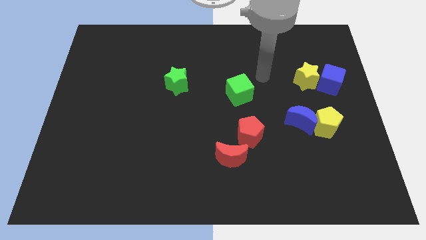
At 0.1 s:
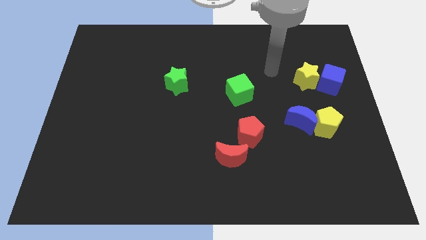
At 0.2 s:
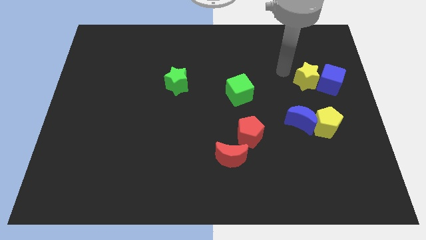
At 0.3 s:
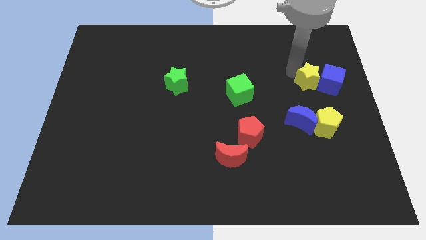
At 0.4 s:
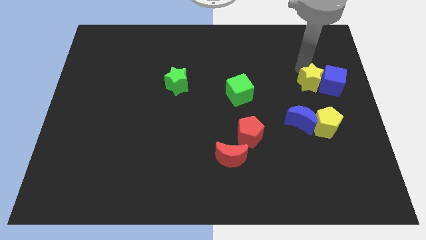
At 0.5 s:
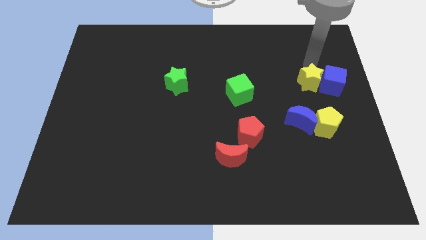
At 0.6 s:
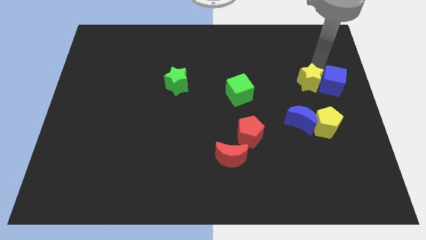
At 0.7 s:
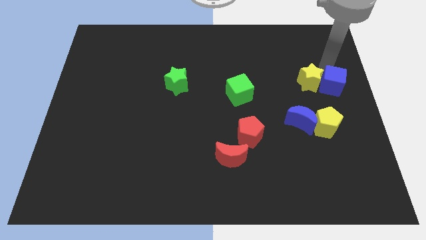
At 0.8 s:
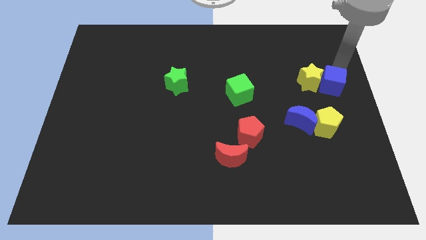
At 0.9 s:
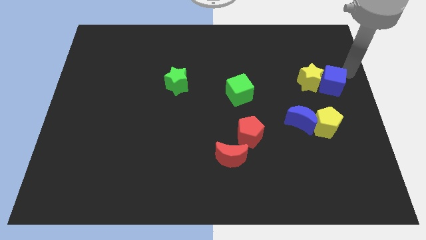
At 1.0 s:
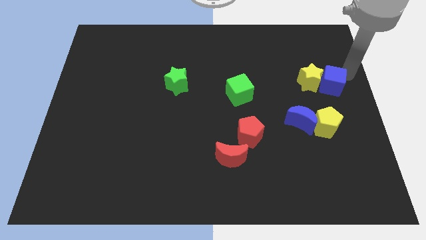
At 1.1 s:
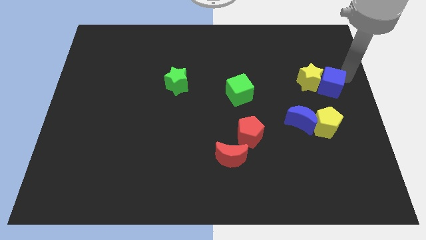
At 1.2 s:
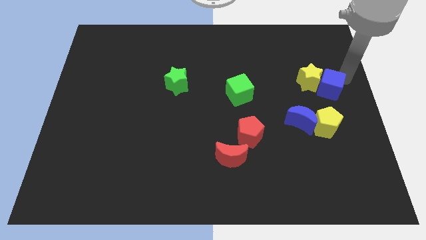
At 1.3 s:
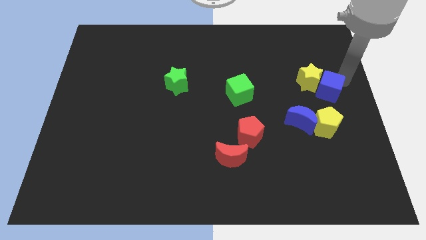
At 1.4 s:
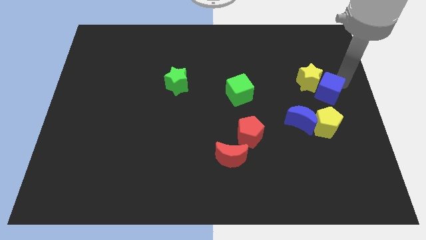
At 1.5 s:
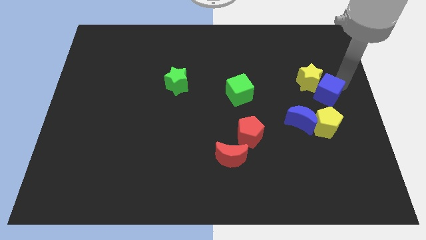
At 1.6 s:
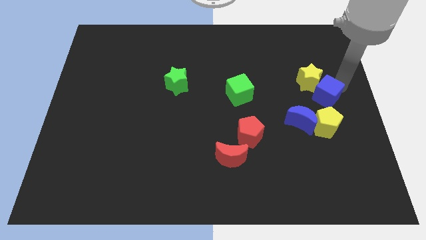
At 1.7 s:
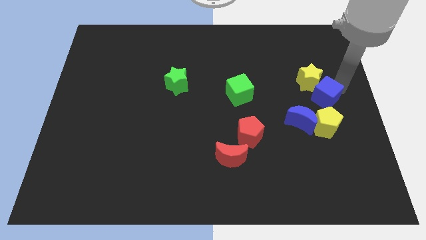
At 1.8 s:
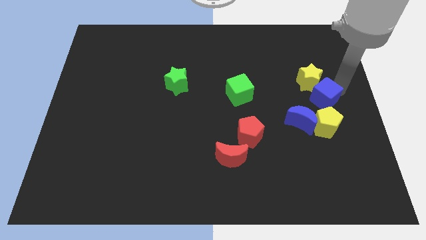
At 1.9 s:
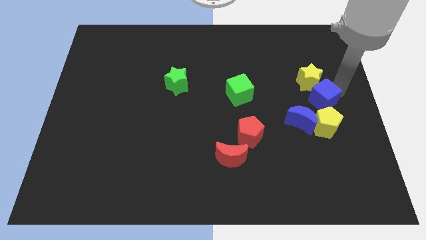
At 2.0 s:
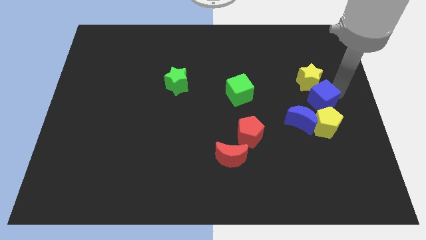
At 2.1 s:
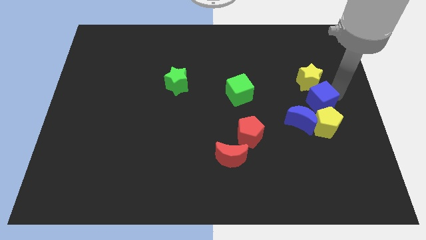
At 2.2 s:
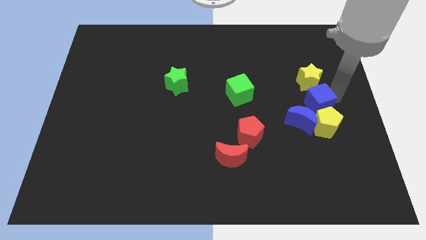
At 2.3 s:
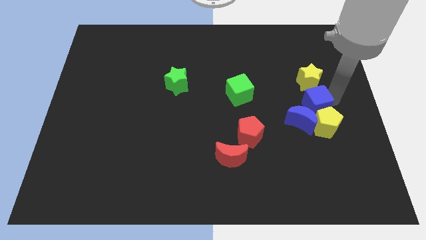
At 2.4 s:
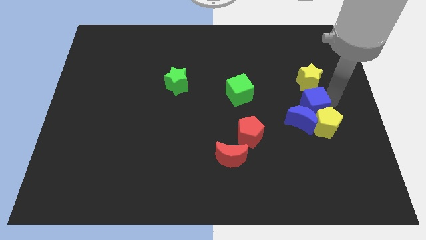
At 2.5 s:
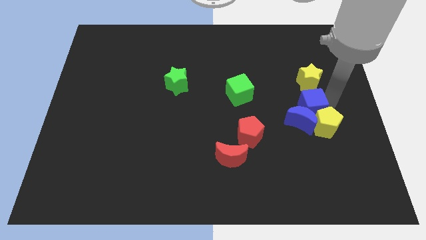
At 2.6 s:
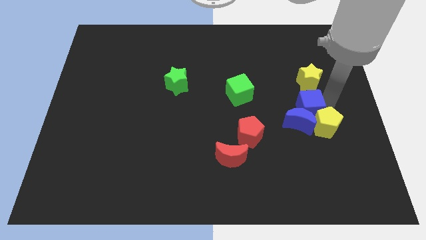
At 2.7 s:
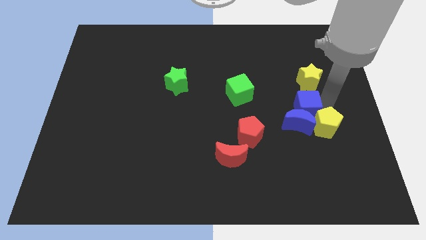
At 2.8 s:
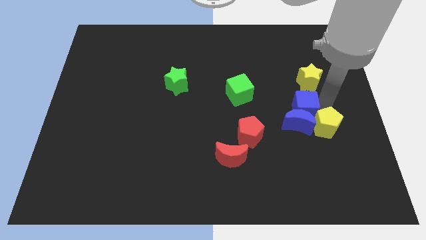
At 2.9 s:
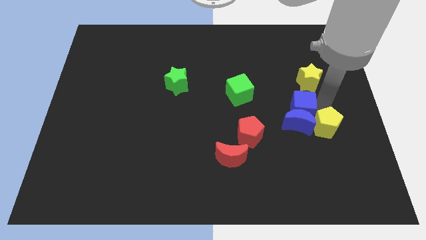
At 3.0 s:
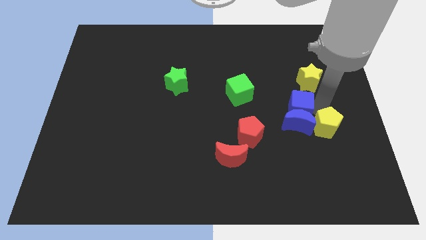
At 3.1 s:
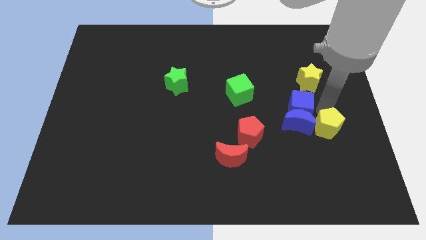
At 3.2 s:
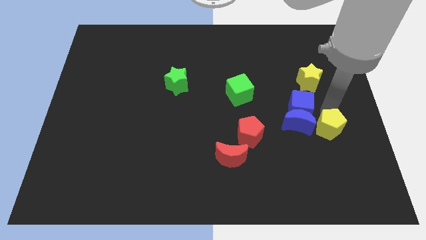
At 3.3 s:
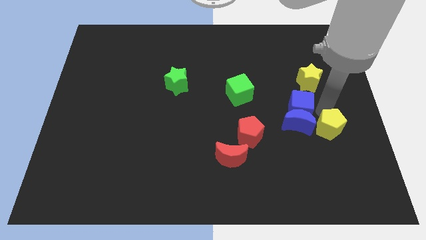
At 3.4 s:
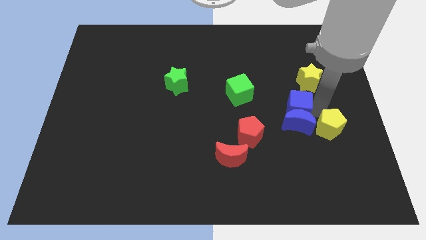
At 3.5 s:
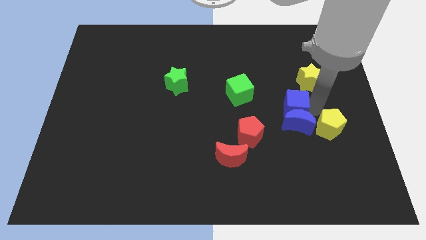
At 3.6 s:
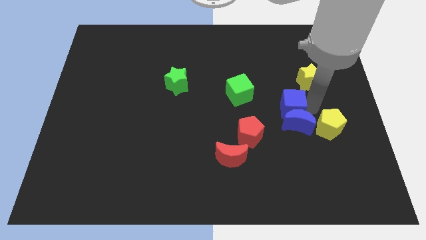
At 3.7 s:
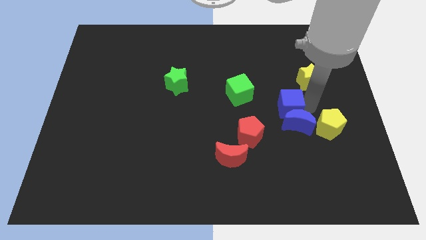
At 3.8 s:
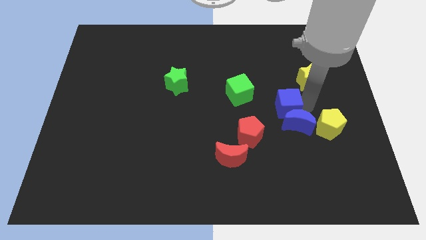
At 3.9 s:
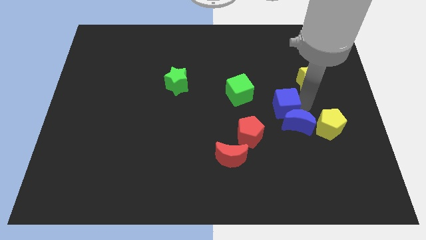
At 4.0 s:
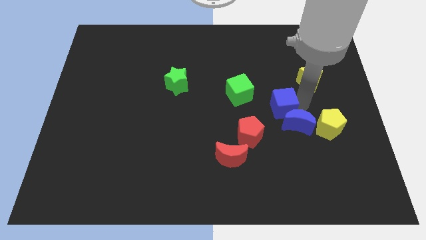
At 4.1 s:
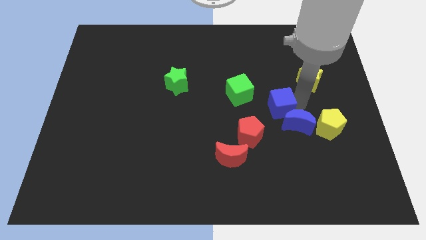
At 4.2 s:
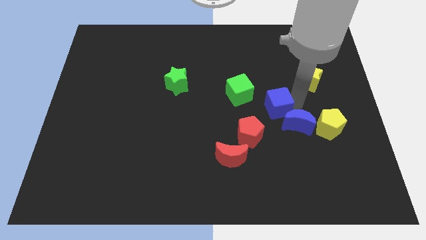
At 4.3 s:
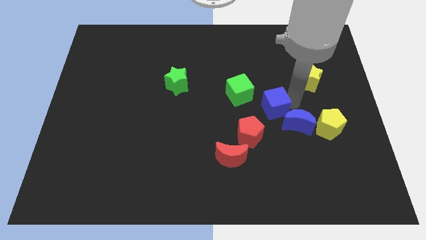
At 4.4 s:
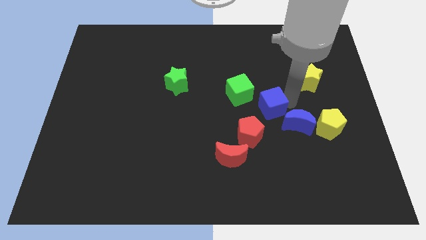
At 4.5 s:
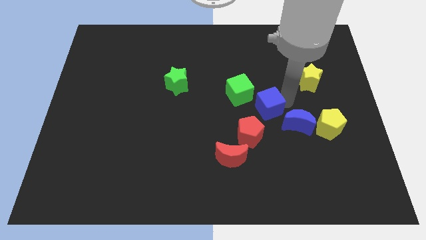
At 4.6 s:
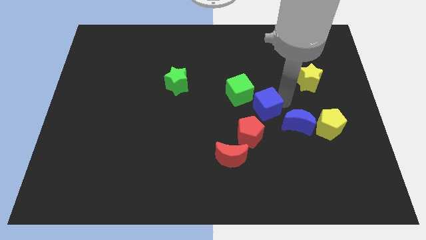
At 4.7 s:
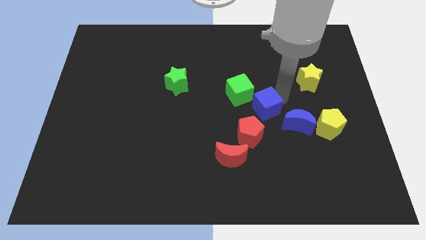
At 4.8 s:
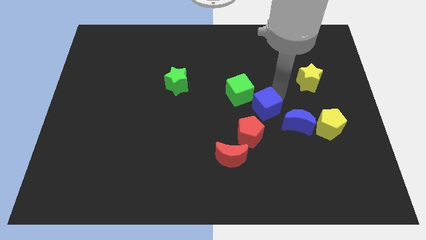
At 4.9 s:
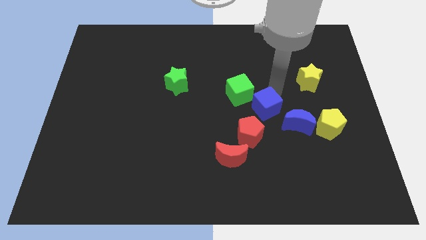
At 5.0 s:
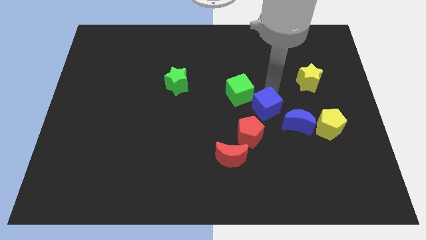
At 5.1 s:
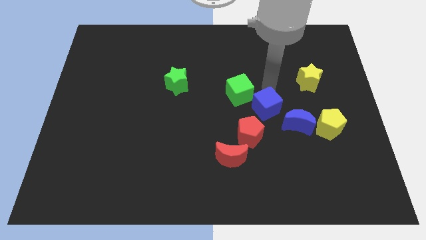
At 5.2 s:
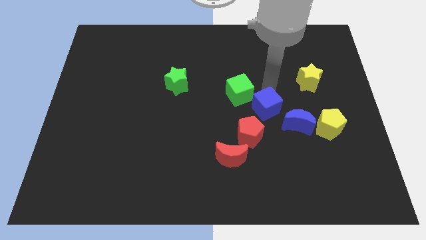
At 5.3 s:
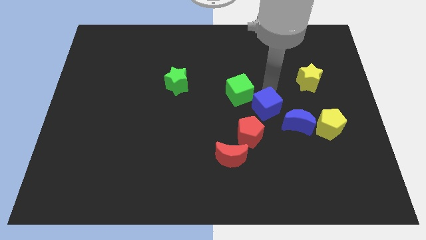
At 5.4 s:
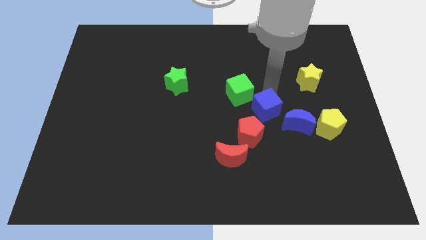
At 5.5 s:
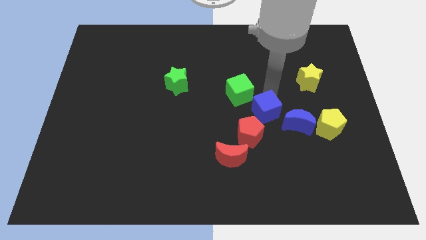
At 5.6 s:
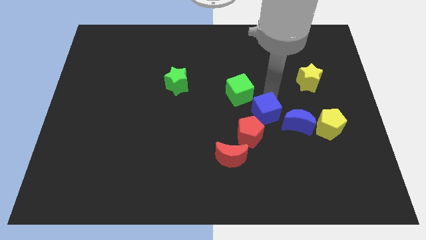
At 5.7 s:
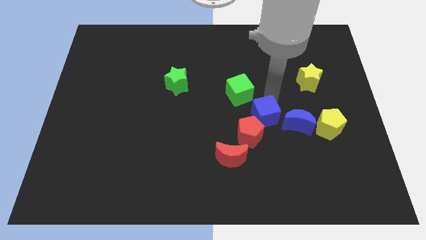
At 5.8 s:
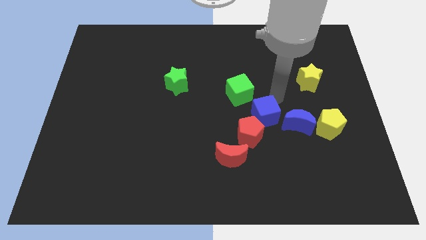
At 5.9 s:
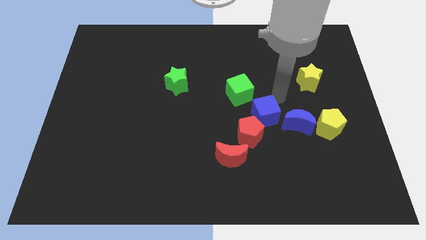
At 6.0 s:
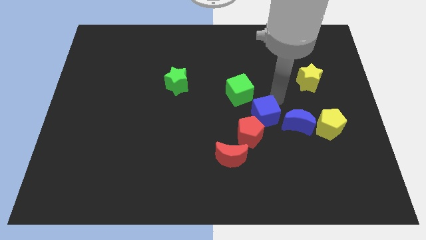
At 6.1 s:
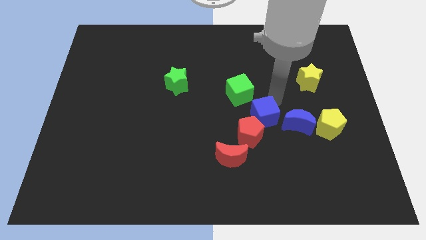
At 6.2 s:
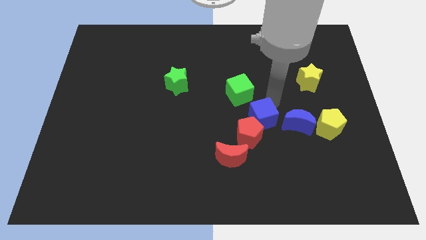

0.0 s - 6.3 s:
put the blue cube to the red pentagon

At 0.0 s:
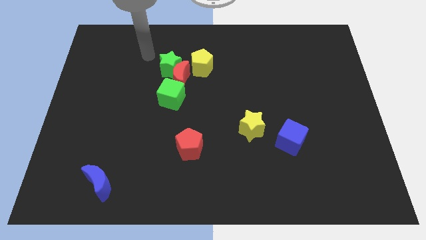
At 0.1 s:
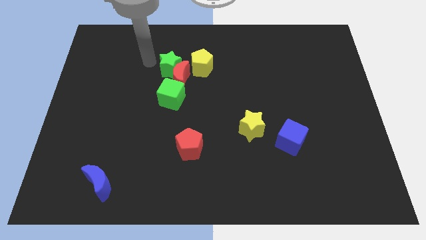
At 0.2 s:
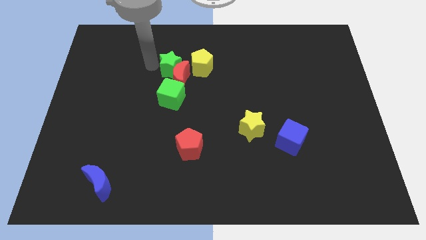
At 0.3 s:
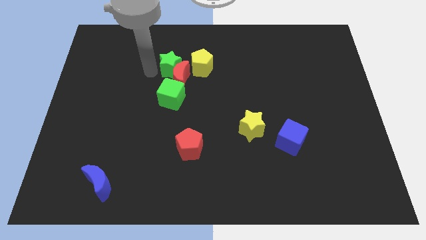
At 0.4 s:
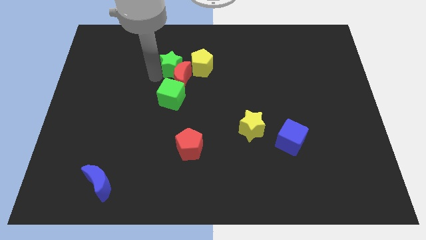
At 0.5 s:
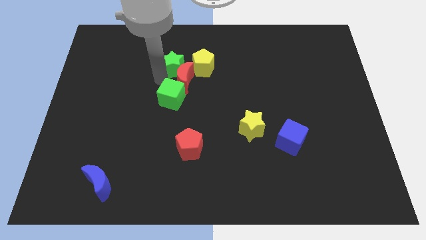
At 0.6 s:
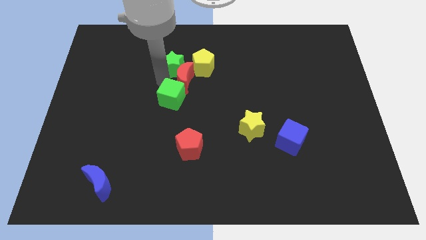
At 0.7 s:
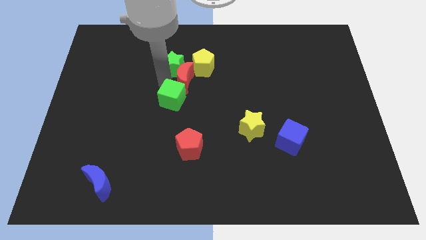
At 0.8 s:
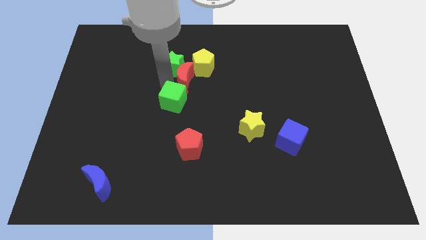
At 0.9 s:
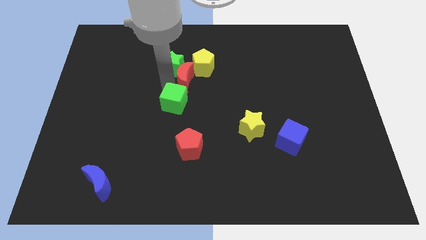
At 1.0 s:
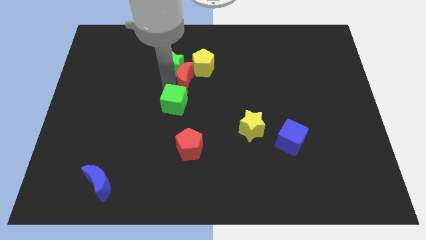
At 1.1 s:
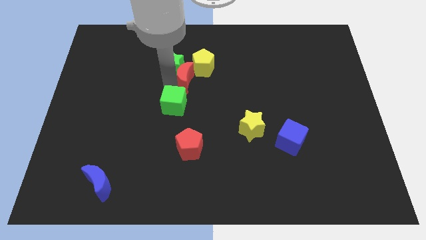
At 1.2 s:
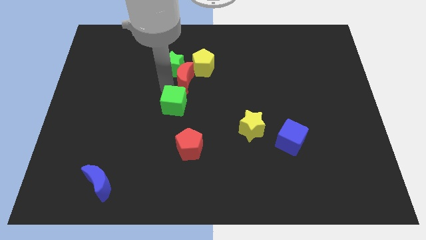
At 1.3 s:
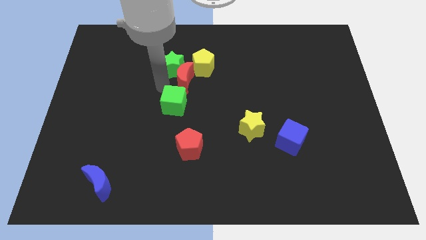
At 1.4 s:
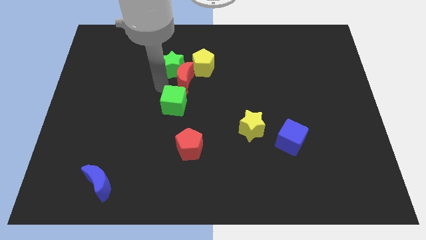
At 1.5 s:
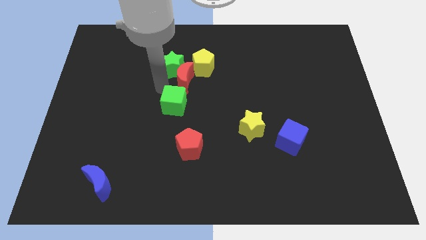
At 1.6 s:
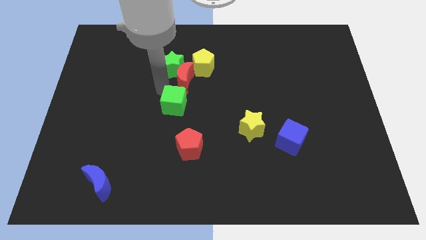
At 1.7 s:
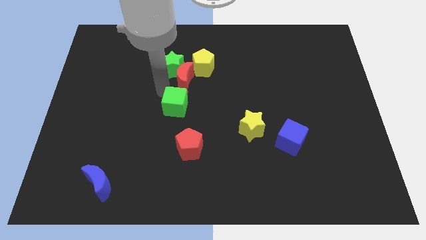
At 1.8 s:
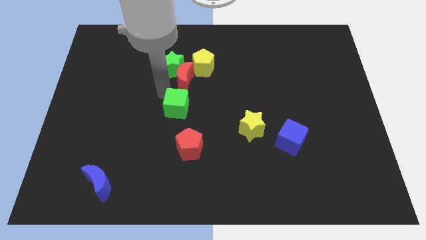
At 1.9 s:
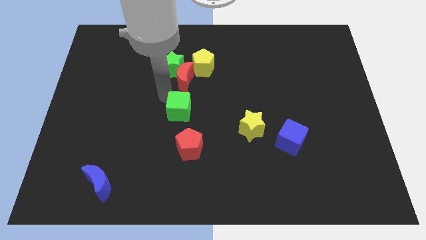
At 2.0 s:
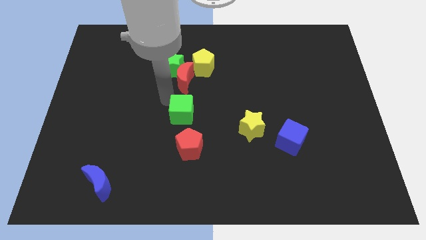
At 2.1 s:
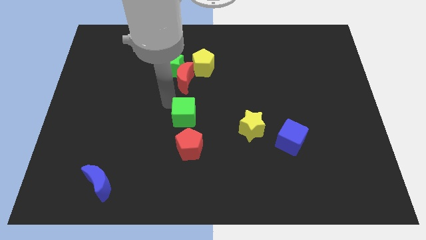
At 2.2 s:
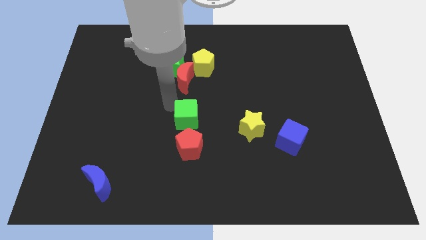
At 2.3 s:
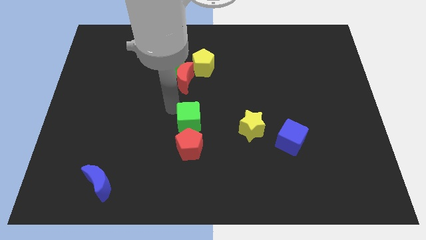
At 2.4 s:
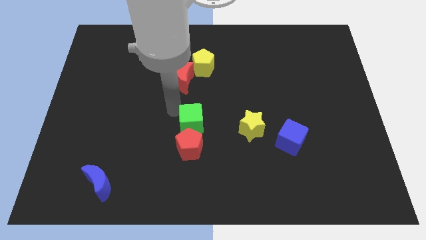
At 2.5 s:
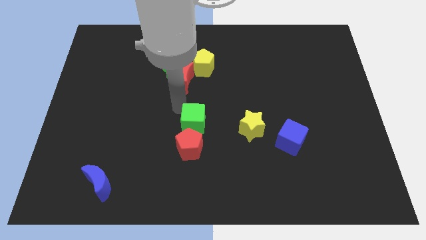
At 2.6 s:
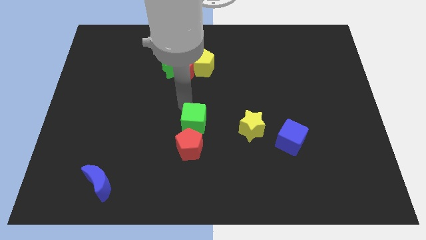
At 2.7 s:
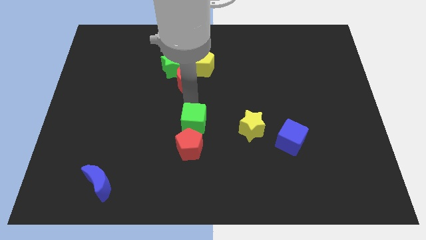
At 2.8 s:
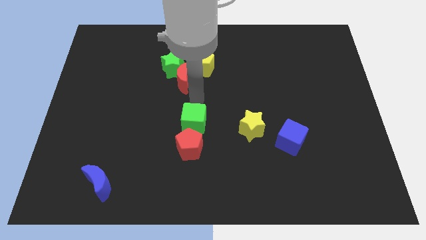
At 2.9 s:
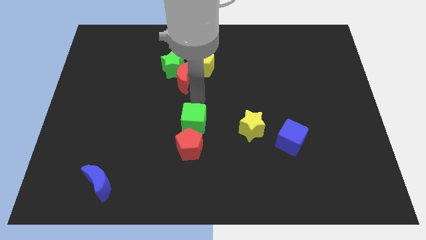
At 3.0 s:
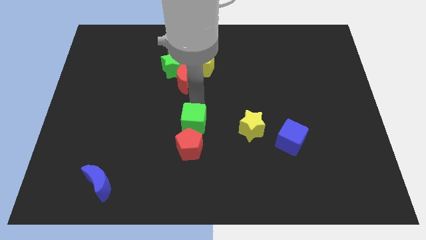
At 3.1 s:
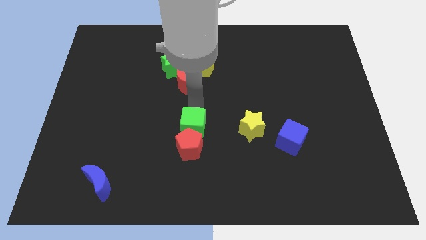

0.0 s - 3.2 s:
move the green cube to the red pentagon
